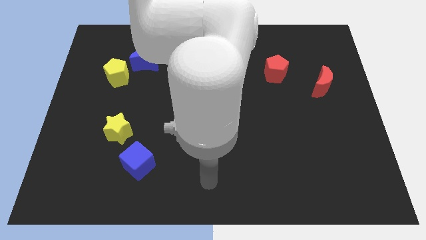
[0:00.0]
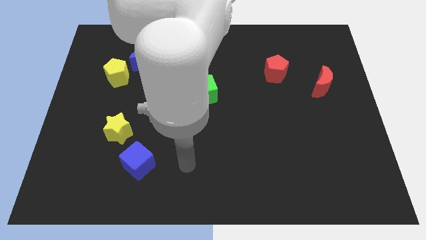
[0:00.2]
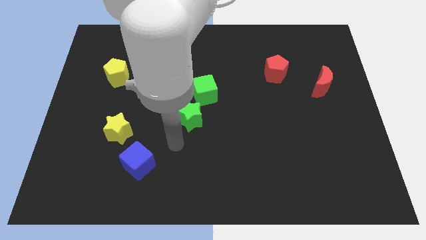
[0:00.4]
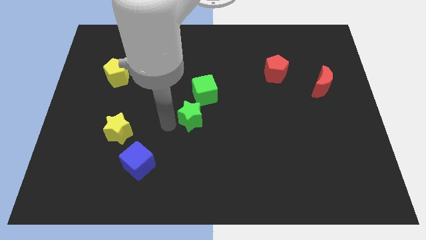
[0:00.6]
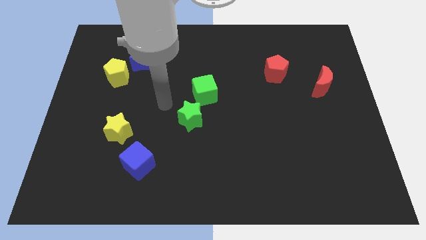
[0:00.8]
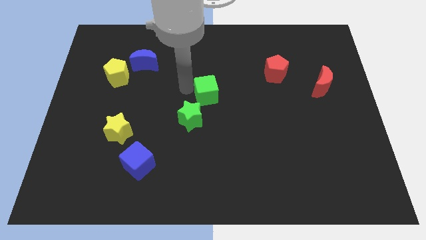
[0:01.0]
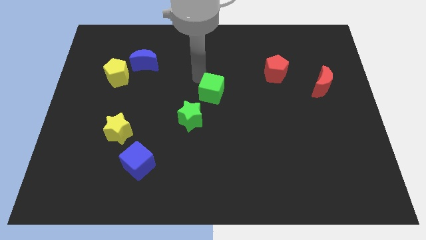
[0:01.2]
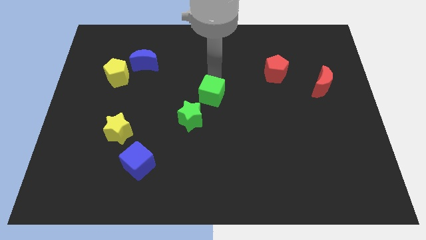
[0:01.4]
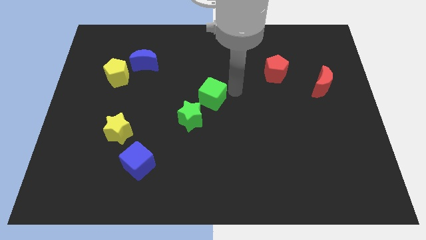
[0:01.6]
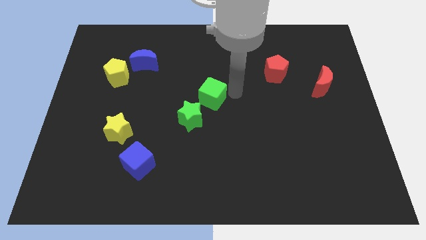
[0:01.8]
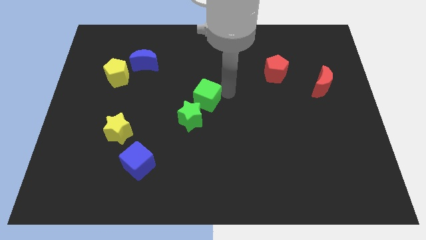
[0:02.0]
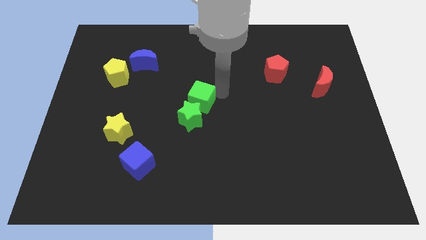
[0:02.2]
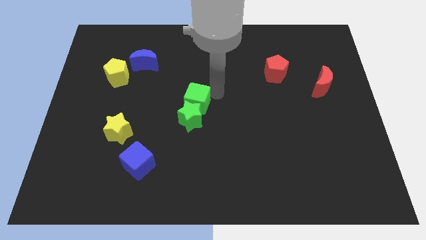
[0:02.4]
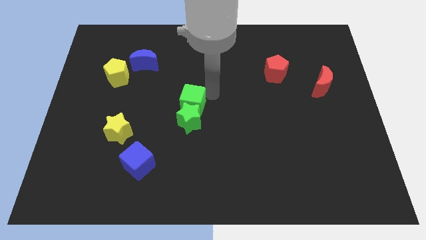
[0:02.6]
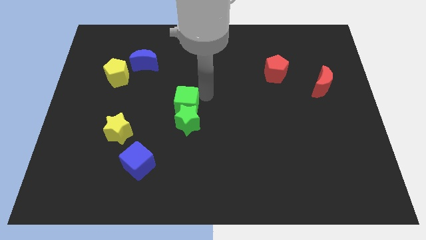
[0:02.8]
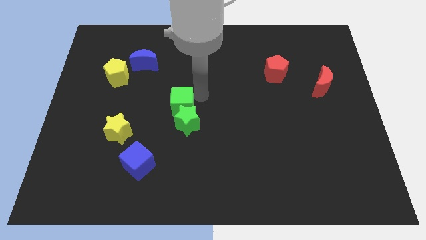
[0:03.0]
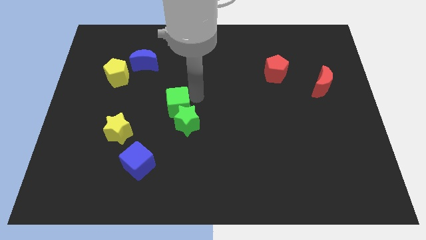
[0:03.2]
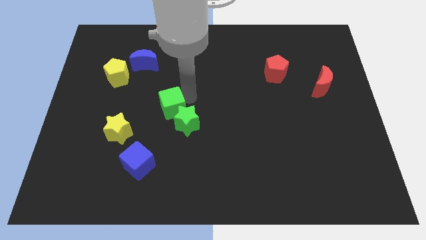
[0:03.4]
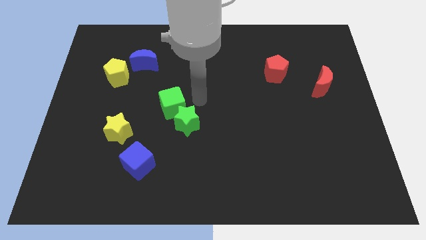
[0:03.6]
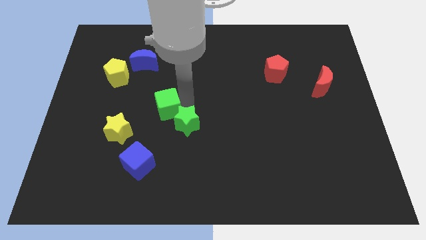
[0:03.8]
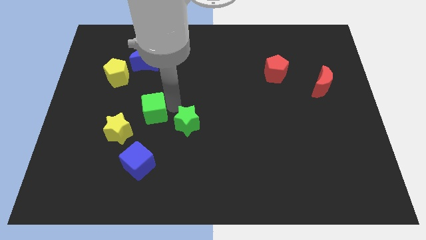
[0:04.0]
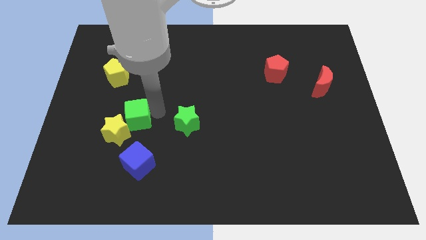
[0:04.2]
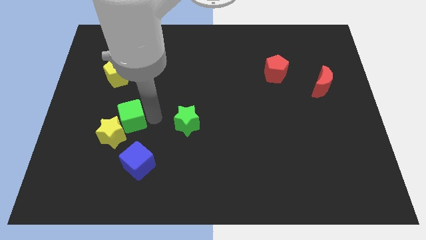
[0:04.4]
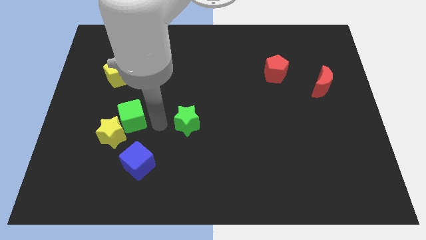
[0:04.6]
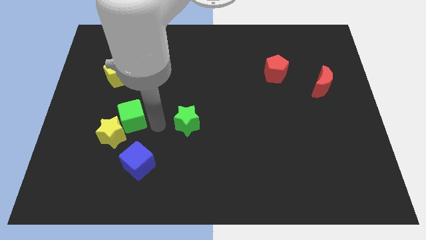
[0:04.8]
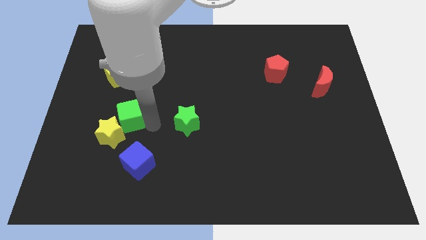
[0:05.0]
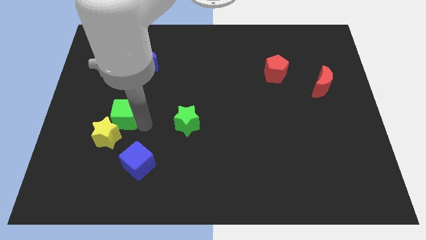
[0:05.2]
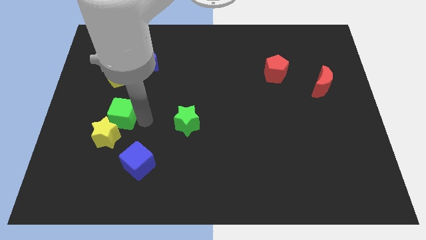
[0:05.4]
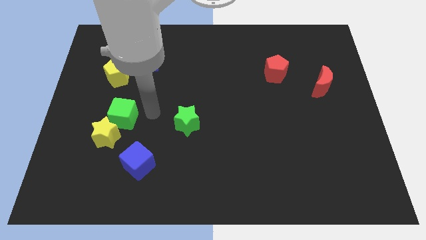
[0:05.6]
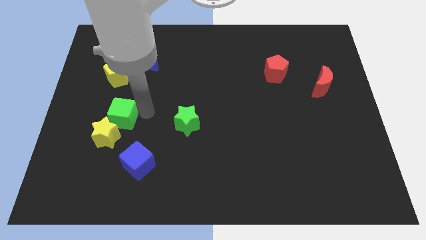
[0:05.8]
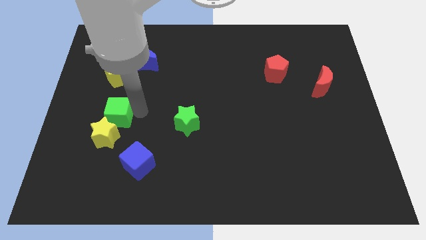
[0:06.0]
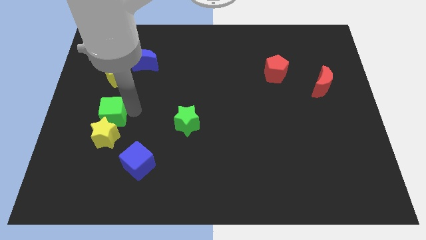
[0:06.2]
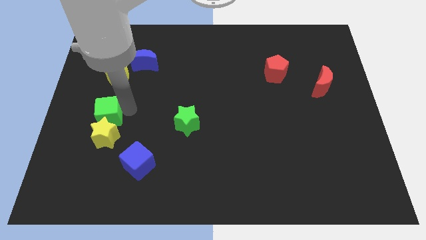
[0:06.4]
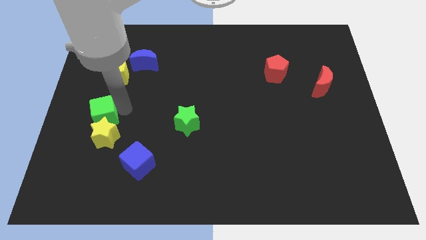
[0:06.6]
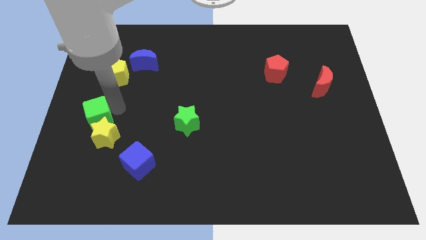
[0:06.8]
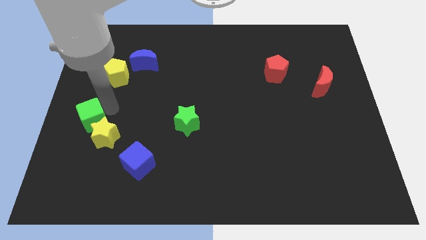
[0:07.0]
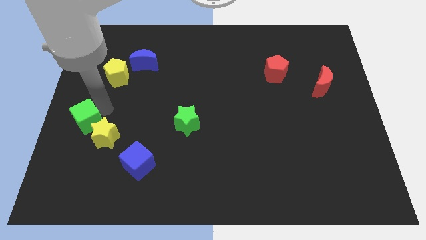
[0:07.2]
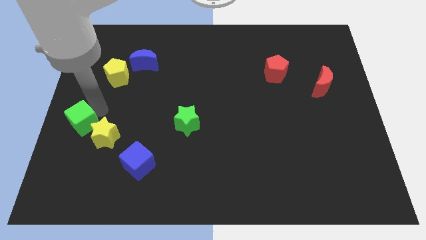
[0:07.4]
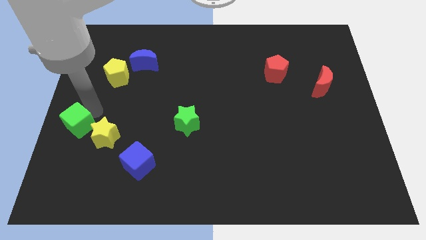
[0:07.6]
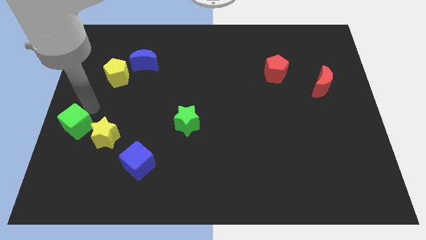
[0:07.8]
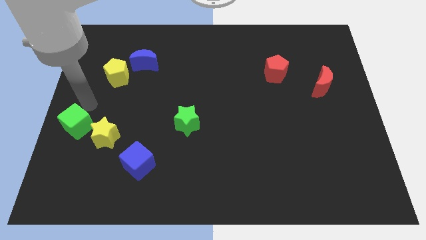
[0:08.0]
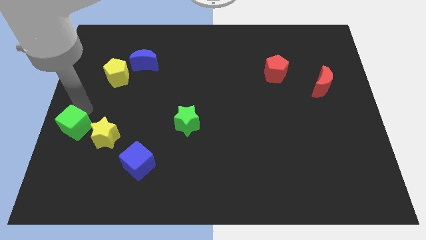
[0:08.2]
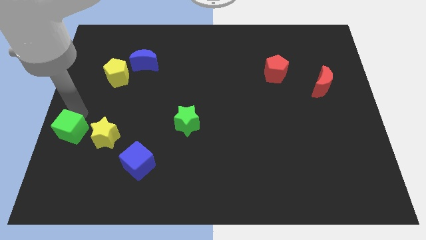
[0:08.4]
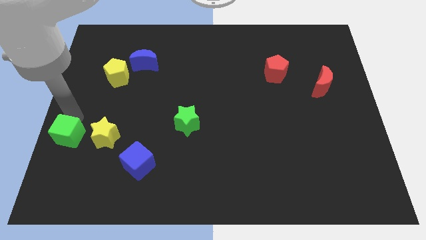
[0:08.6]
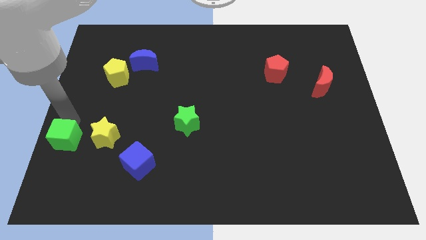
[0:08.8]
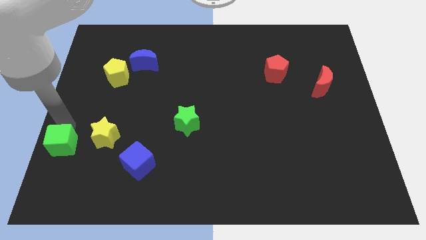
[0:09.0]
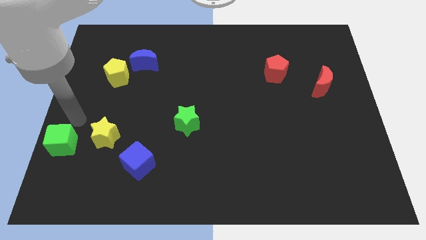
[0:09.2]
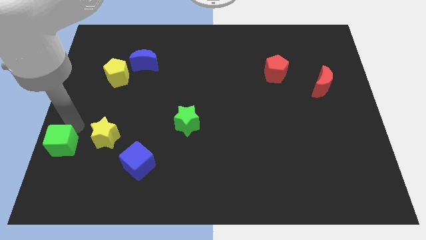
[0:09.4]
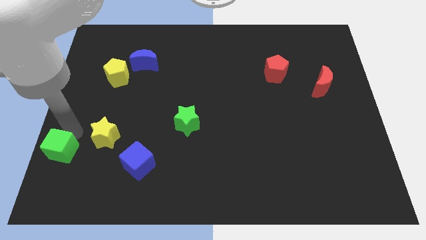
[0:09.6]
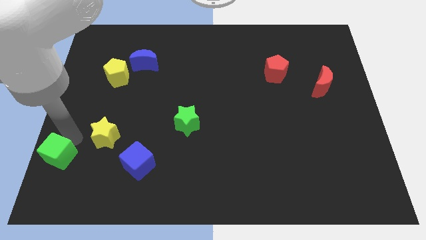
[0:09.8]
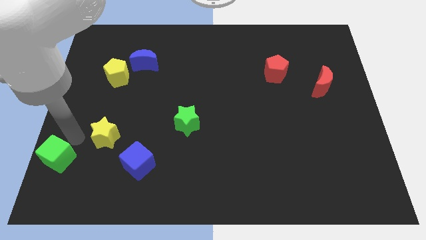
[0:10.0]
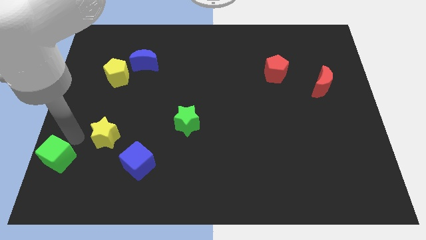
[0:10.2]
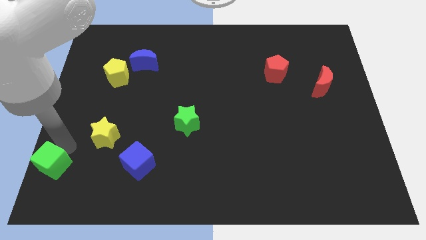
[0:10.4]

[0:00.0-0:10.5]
slide the green cube to the bottom left of the board
